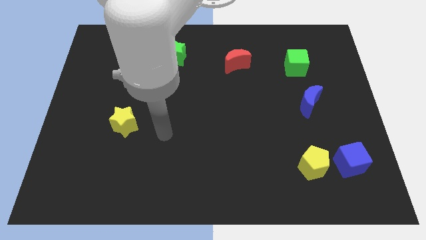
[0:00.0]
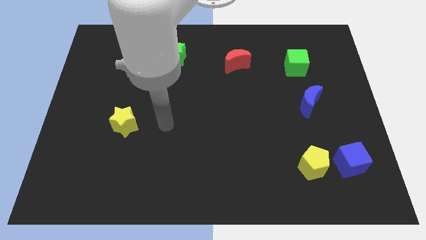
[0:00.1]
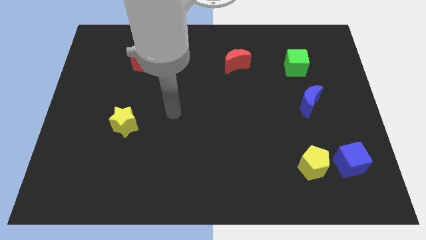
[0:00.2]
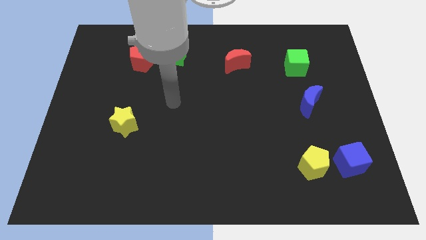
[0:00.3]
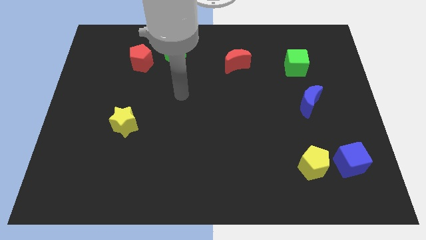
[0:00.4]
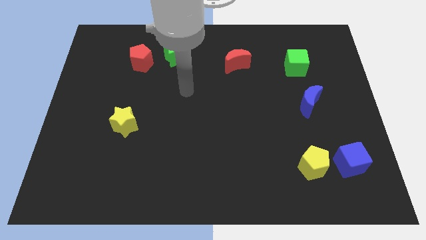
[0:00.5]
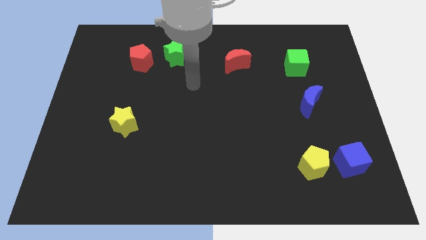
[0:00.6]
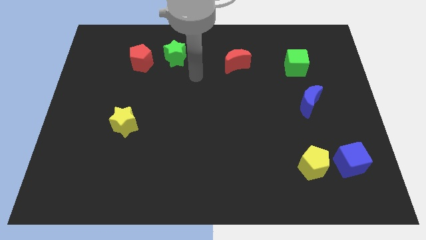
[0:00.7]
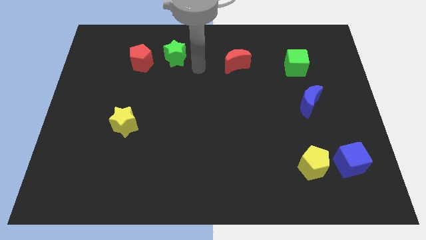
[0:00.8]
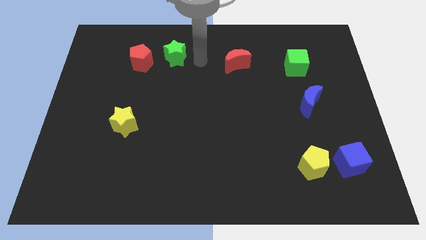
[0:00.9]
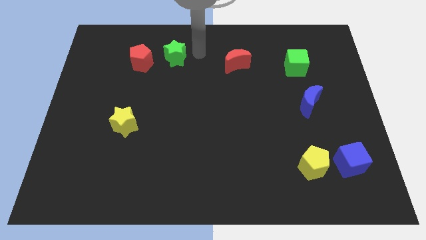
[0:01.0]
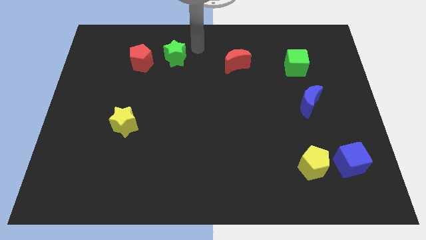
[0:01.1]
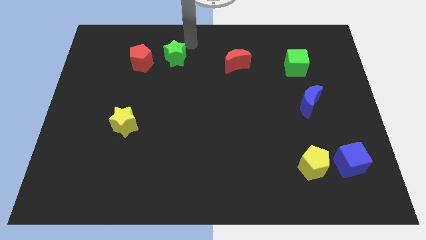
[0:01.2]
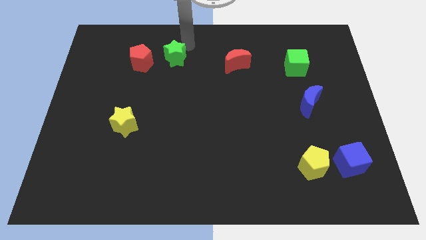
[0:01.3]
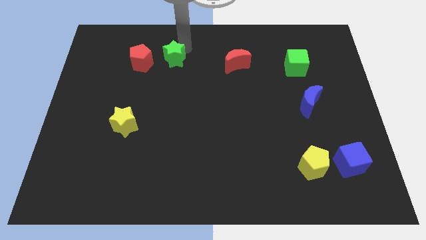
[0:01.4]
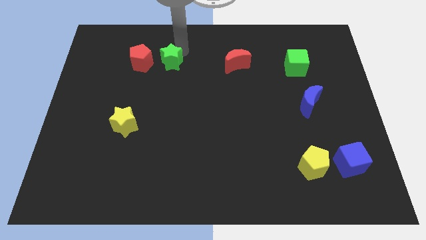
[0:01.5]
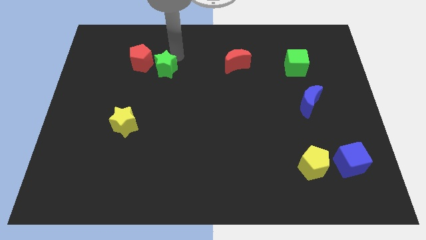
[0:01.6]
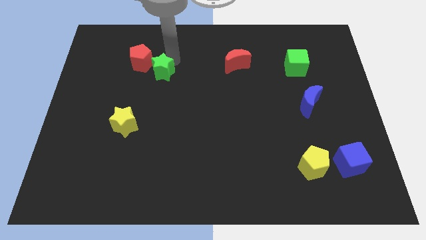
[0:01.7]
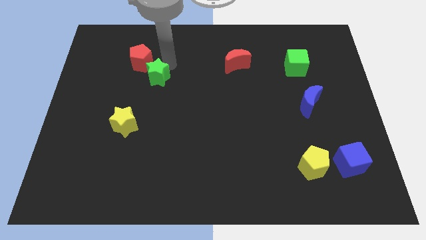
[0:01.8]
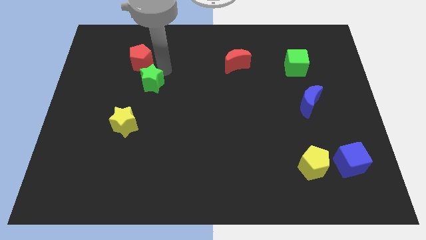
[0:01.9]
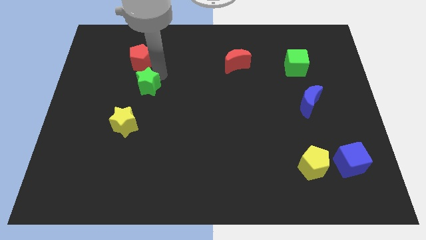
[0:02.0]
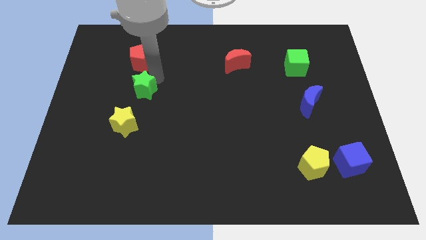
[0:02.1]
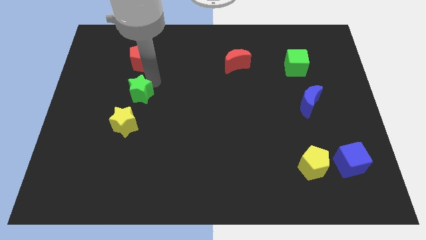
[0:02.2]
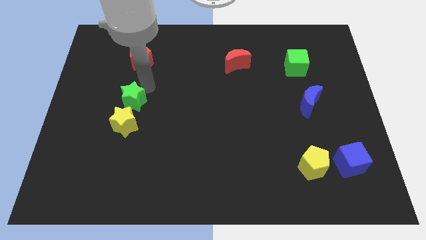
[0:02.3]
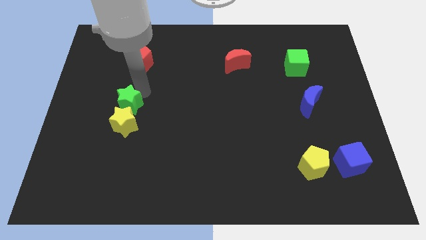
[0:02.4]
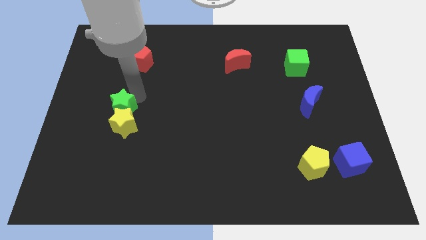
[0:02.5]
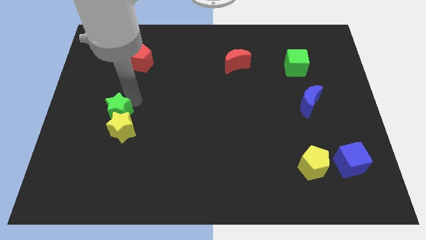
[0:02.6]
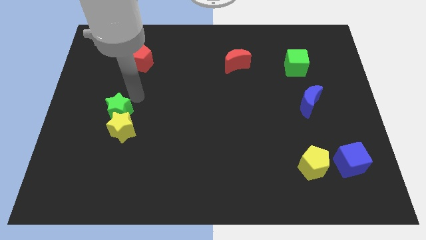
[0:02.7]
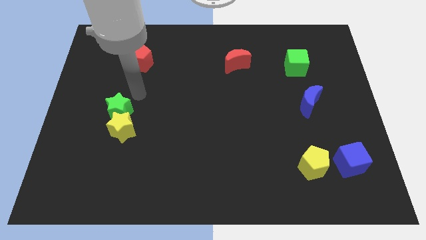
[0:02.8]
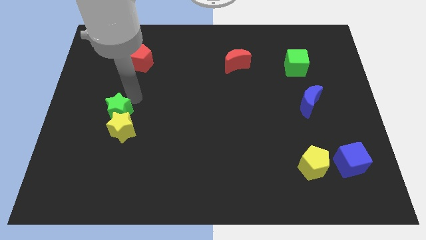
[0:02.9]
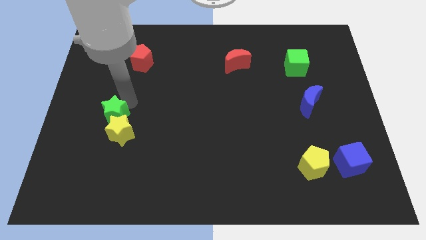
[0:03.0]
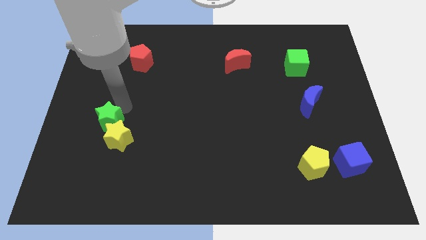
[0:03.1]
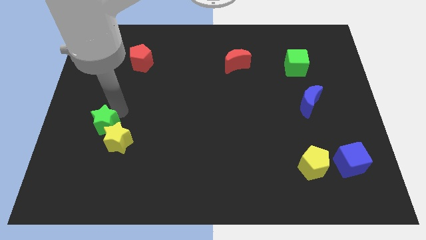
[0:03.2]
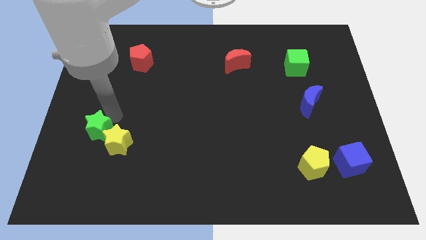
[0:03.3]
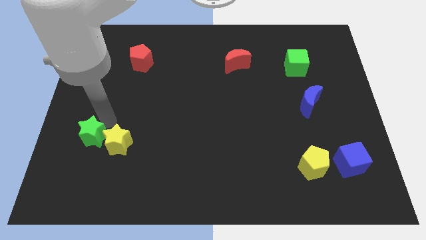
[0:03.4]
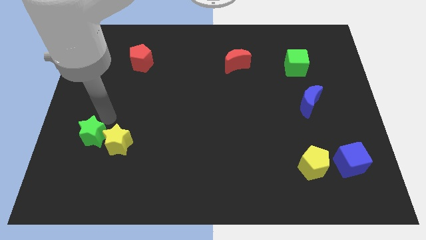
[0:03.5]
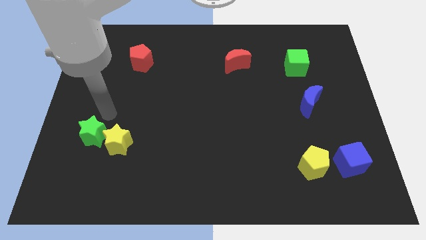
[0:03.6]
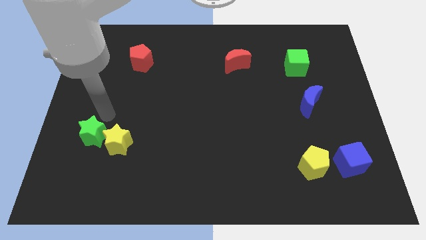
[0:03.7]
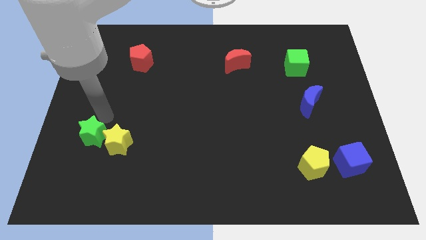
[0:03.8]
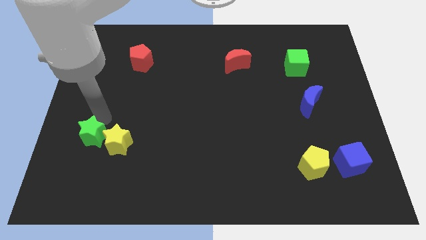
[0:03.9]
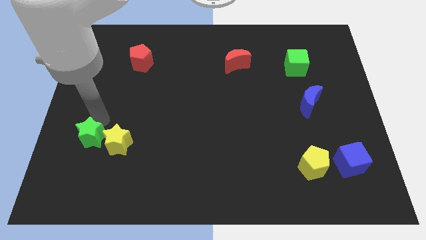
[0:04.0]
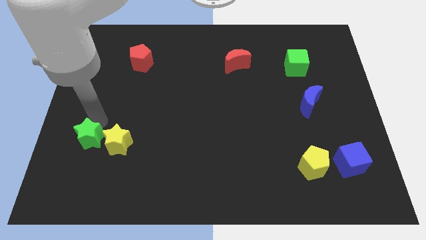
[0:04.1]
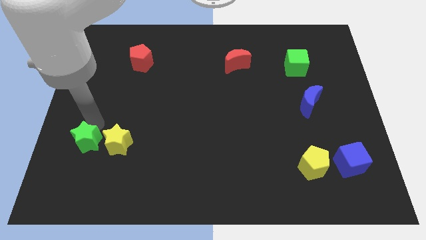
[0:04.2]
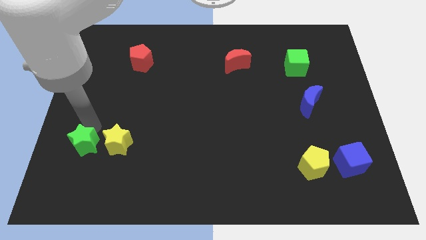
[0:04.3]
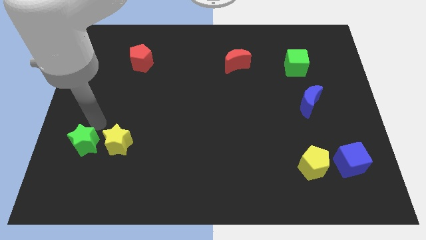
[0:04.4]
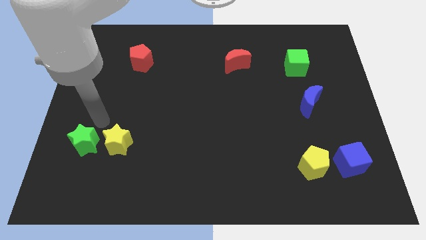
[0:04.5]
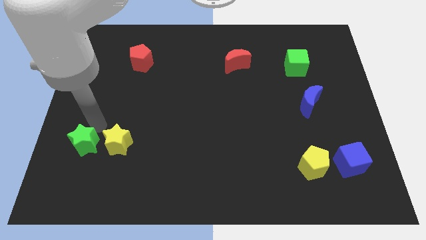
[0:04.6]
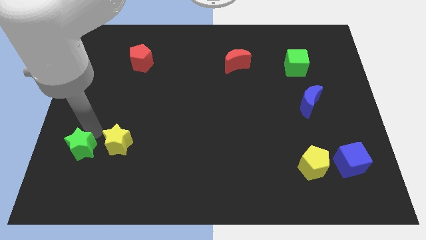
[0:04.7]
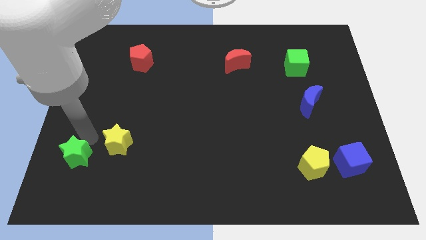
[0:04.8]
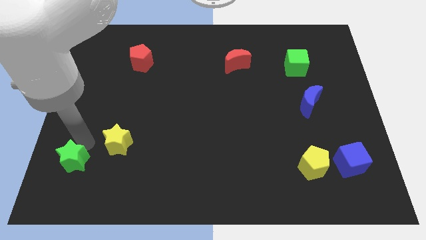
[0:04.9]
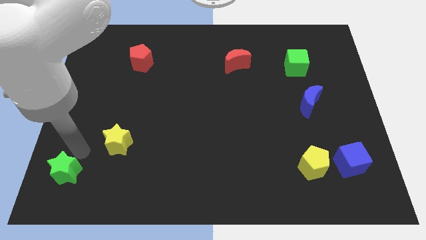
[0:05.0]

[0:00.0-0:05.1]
move the green star to the bottom left

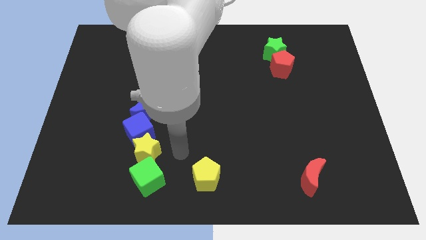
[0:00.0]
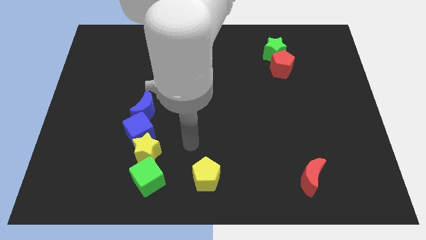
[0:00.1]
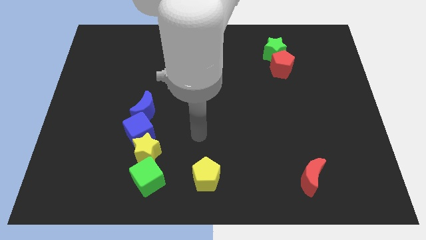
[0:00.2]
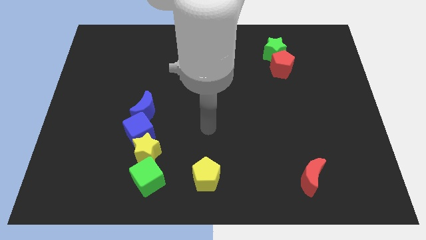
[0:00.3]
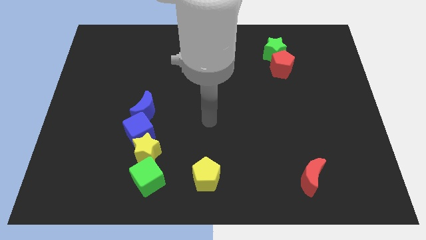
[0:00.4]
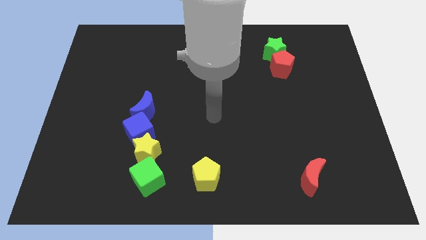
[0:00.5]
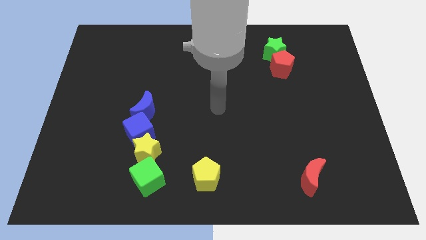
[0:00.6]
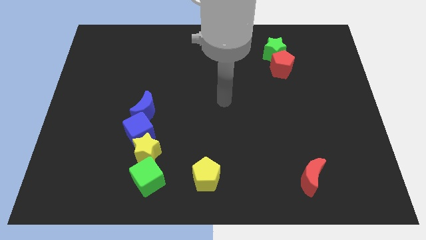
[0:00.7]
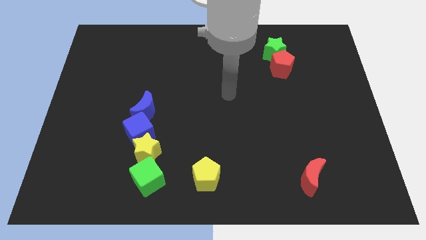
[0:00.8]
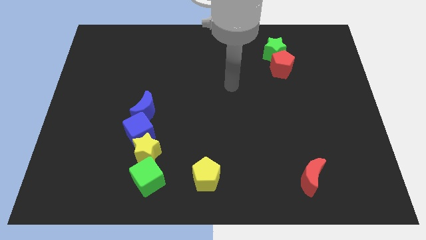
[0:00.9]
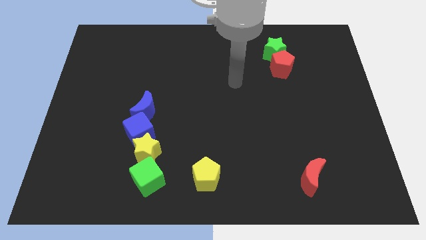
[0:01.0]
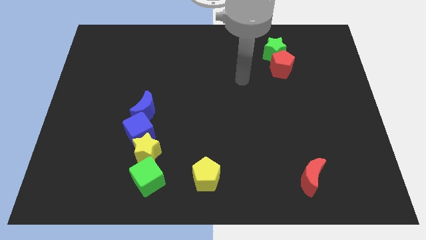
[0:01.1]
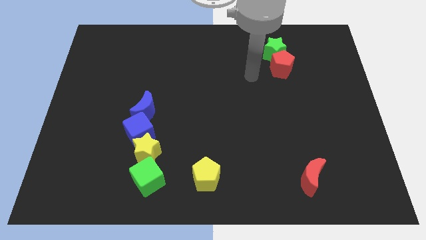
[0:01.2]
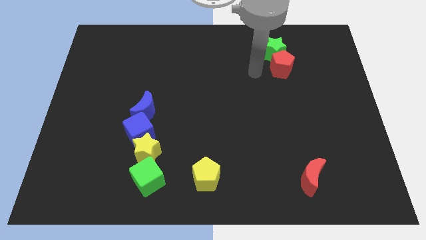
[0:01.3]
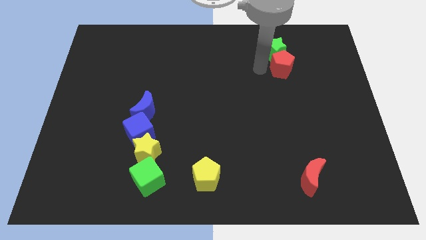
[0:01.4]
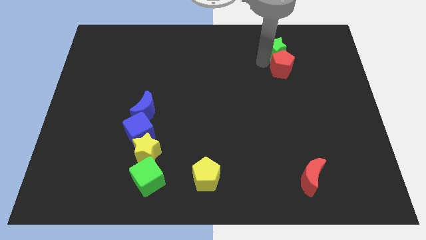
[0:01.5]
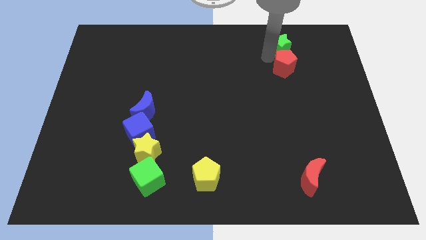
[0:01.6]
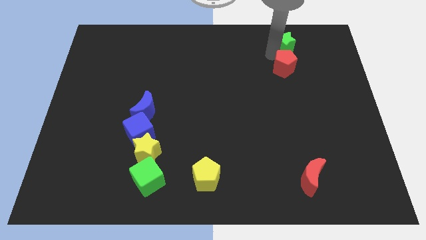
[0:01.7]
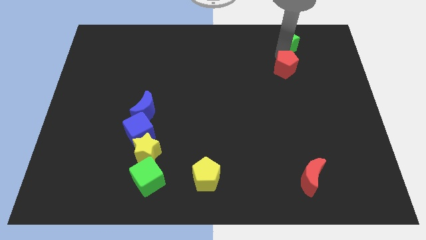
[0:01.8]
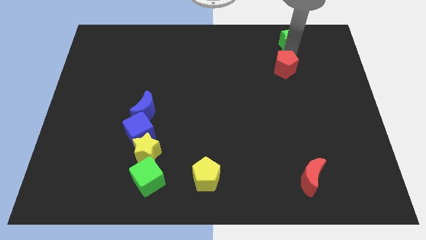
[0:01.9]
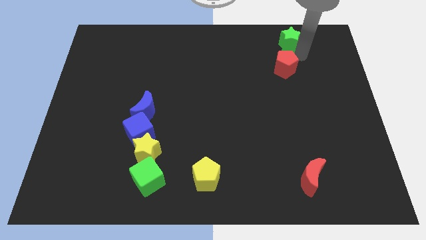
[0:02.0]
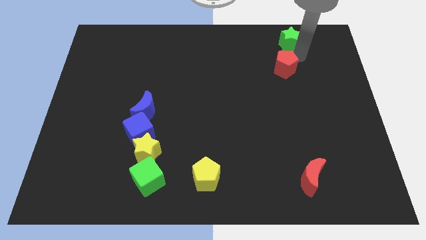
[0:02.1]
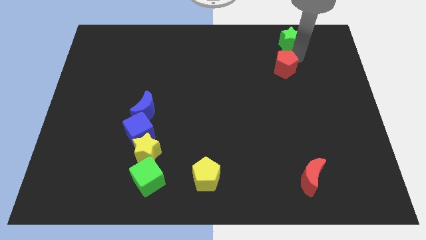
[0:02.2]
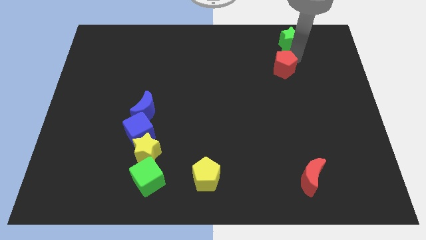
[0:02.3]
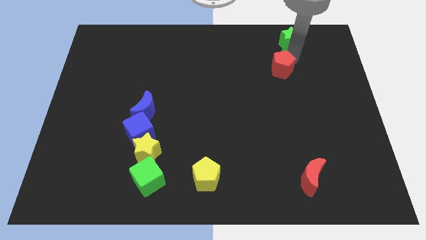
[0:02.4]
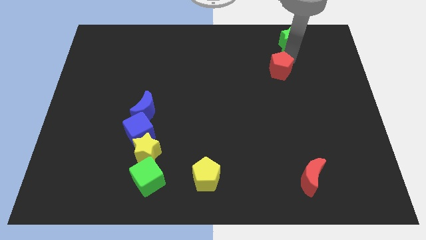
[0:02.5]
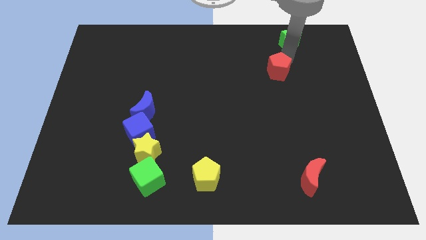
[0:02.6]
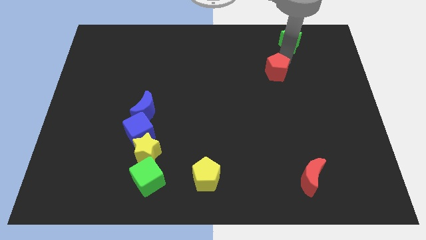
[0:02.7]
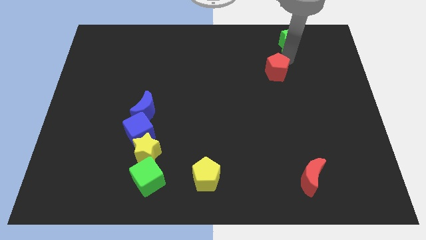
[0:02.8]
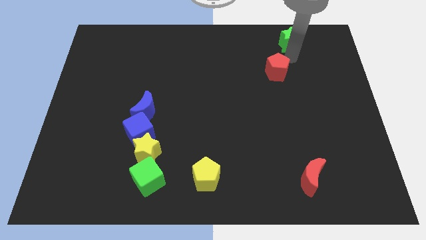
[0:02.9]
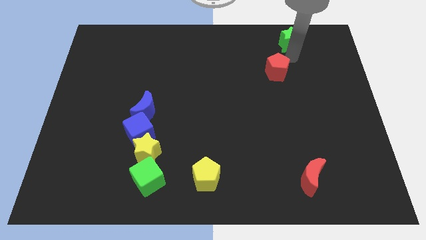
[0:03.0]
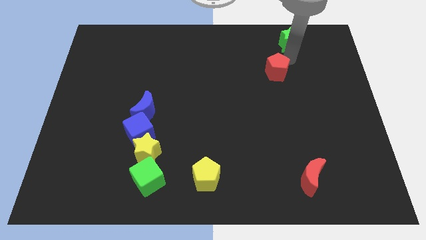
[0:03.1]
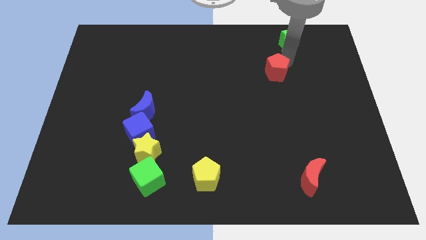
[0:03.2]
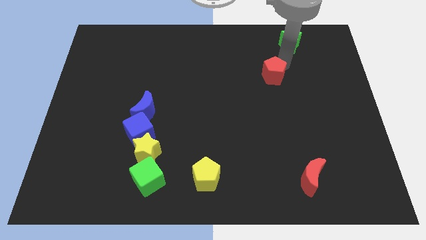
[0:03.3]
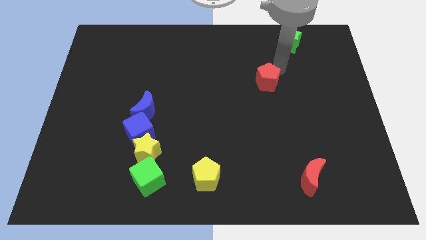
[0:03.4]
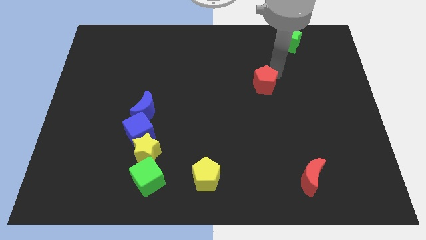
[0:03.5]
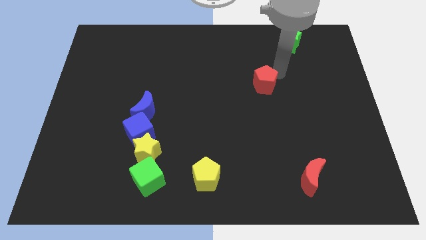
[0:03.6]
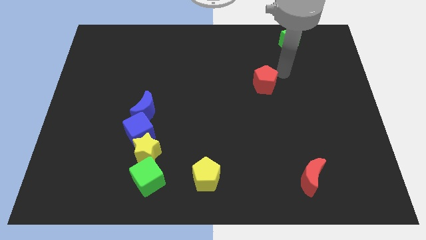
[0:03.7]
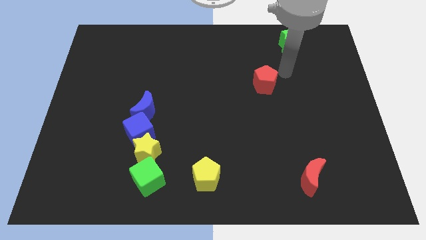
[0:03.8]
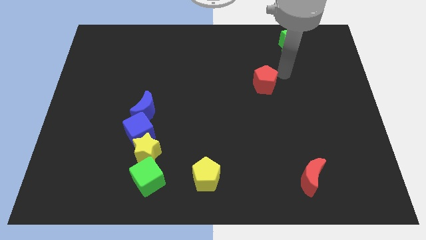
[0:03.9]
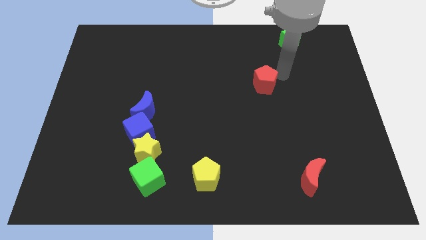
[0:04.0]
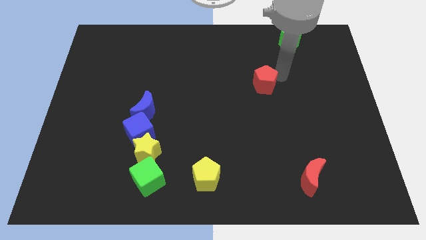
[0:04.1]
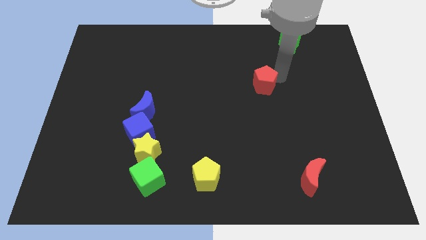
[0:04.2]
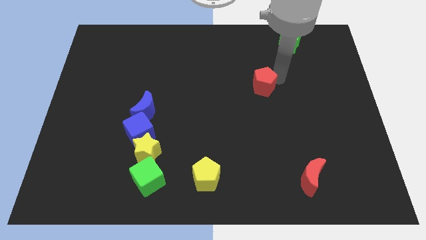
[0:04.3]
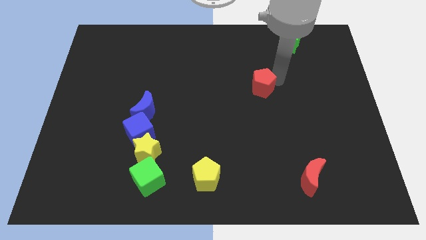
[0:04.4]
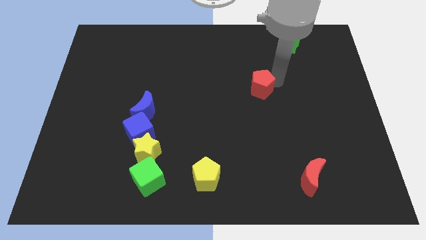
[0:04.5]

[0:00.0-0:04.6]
slide the red pentagon to the middle of the board
